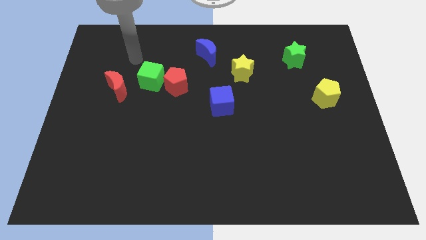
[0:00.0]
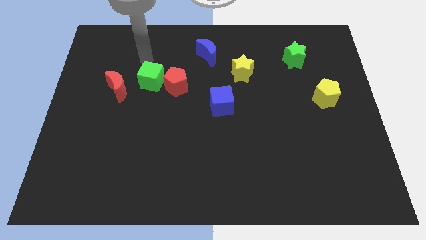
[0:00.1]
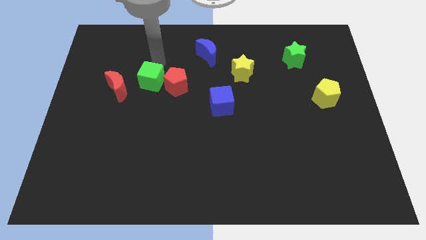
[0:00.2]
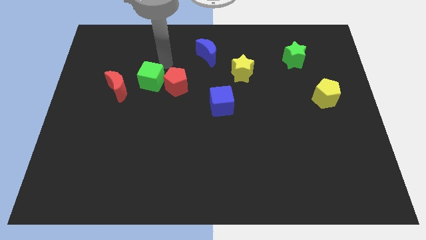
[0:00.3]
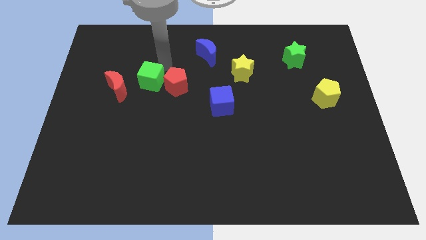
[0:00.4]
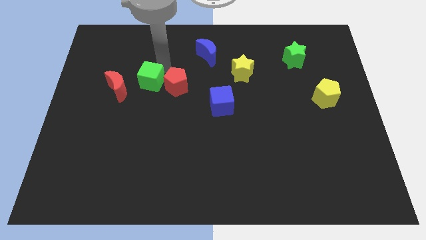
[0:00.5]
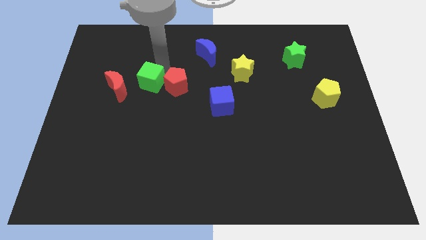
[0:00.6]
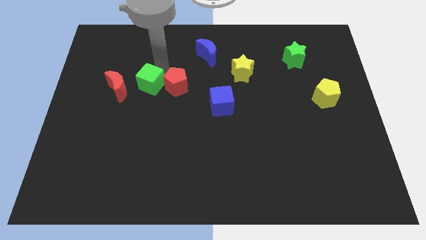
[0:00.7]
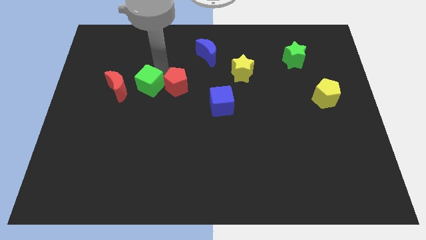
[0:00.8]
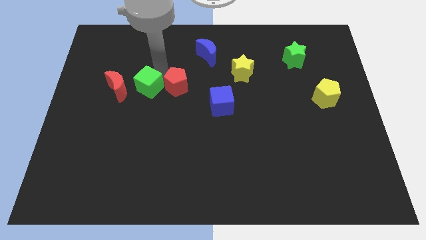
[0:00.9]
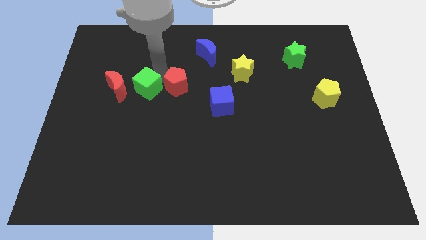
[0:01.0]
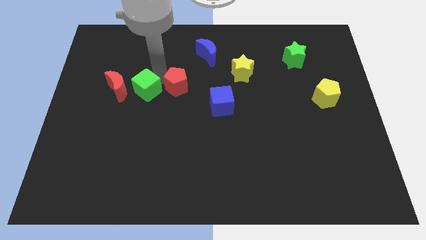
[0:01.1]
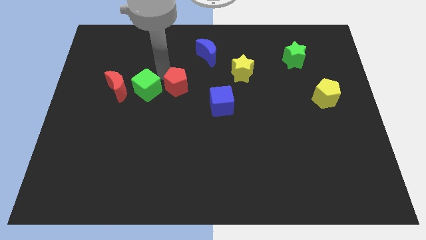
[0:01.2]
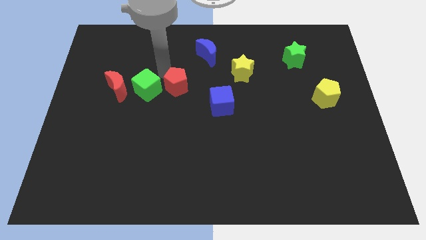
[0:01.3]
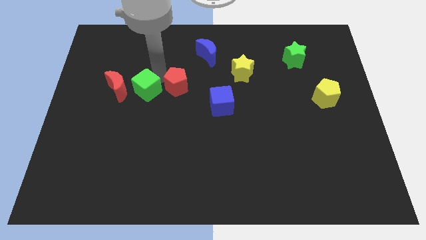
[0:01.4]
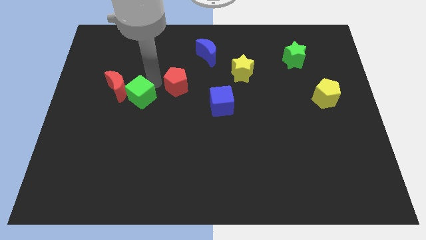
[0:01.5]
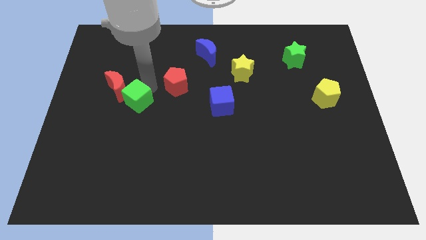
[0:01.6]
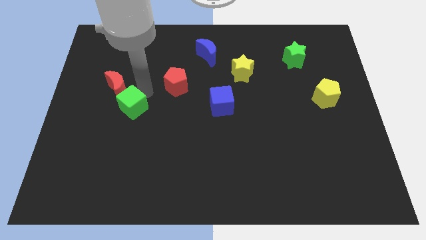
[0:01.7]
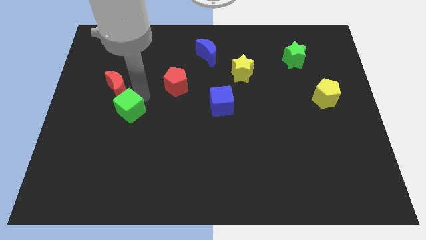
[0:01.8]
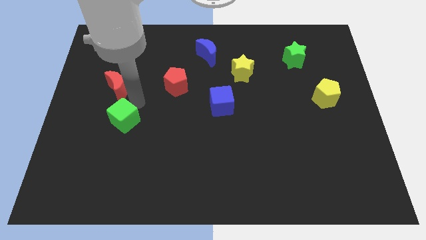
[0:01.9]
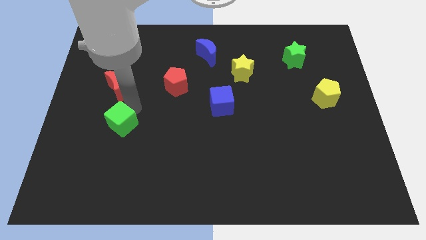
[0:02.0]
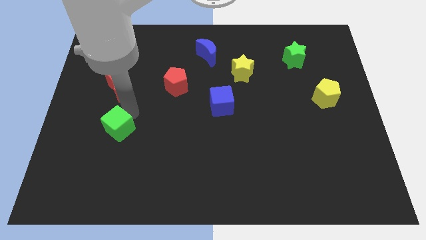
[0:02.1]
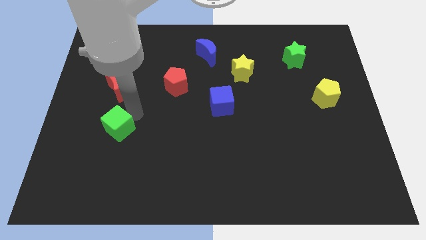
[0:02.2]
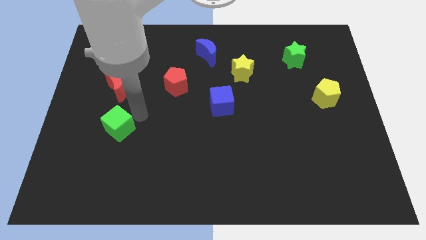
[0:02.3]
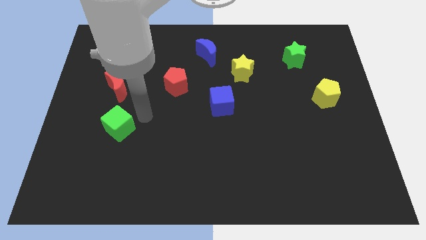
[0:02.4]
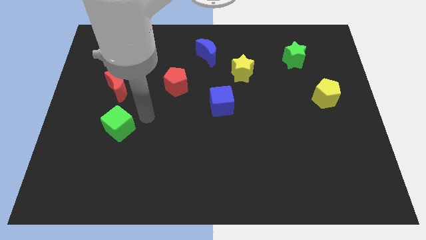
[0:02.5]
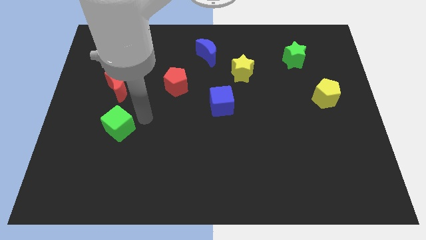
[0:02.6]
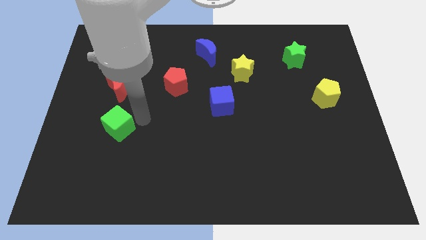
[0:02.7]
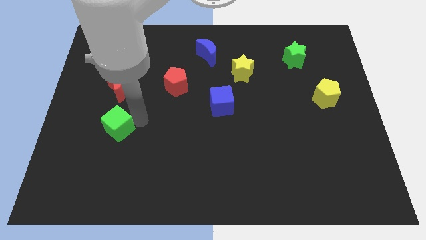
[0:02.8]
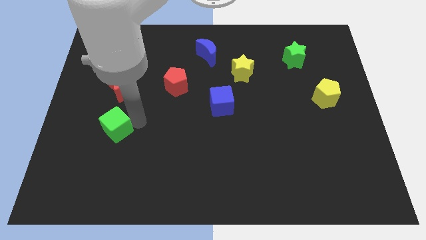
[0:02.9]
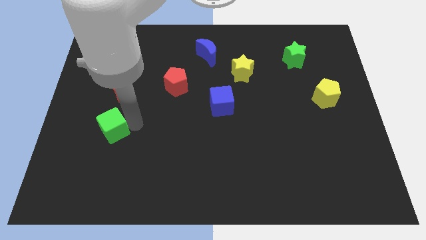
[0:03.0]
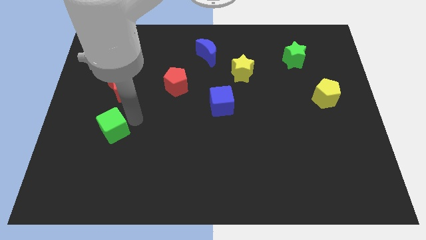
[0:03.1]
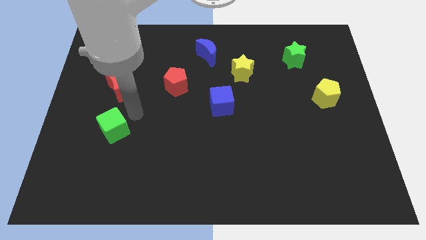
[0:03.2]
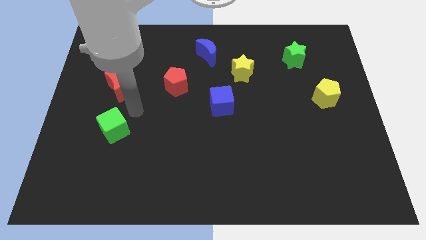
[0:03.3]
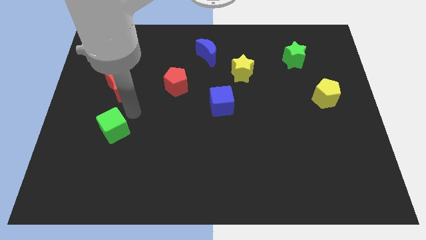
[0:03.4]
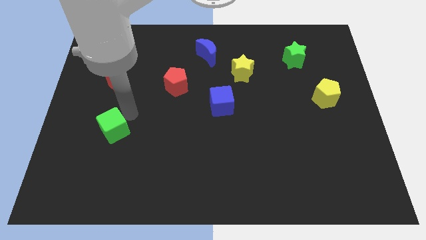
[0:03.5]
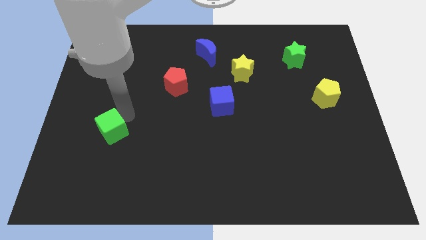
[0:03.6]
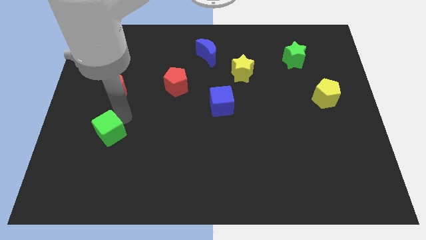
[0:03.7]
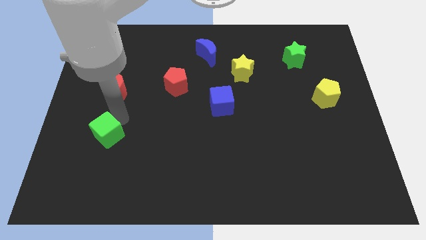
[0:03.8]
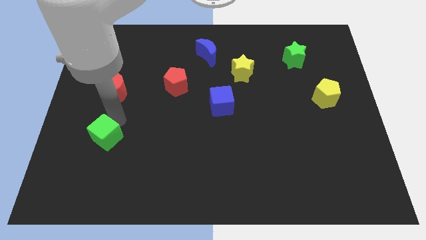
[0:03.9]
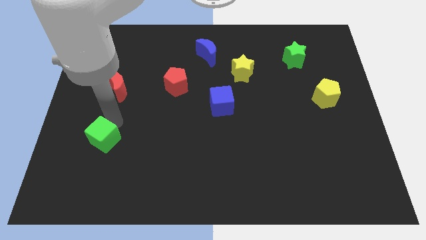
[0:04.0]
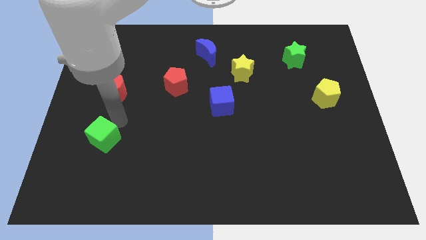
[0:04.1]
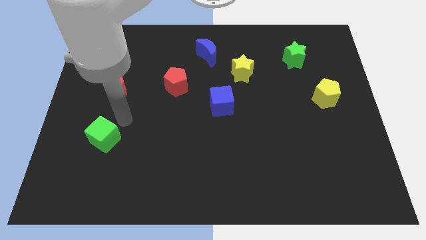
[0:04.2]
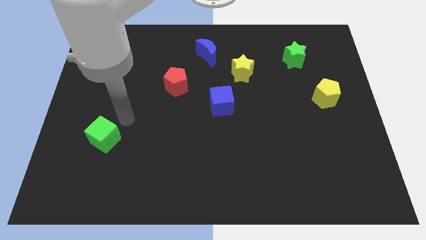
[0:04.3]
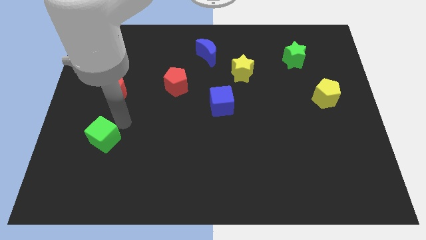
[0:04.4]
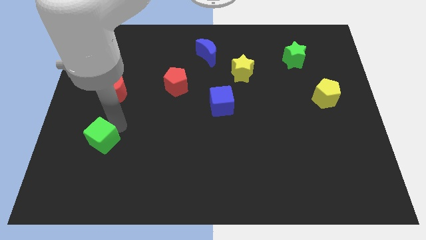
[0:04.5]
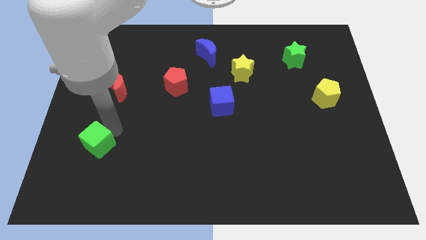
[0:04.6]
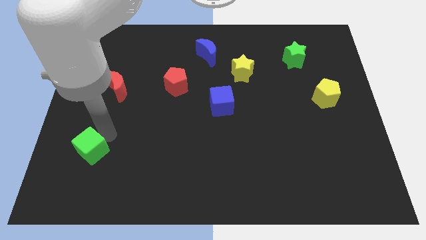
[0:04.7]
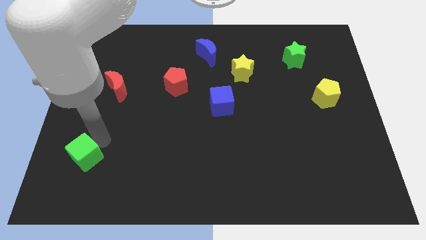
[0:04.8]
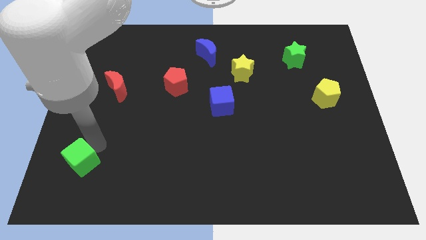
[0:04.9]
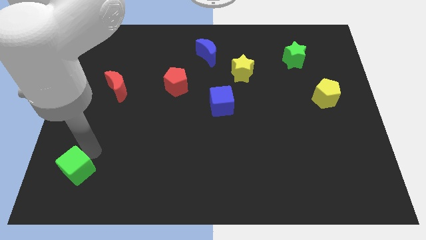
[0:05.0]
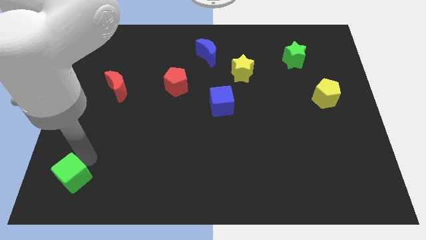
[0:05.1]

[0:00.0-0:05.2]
move the green cube to the bottom left of the board

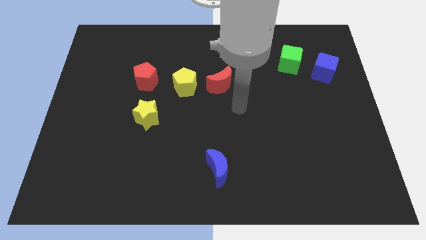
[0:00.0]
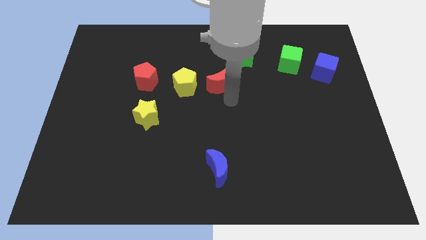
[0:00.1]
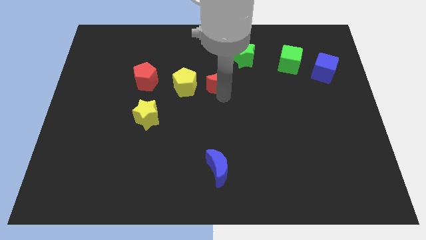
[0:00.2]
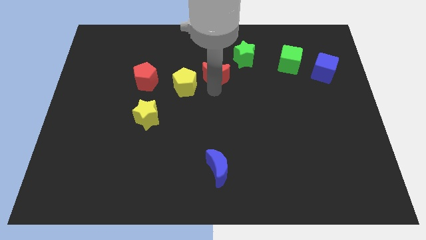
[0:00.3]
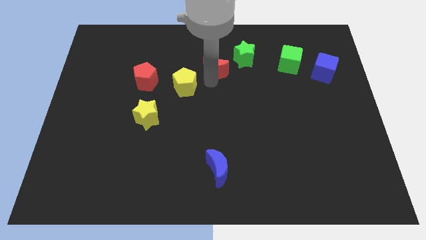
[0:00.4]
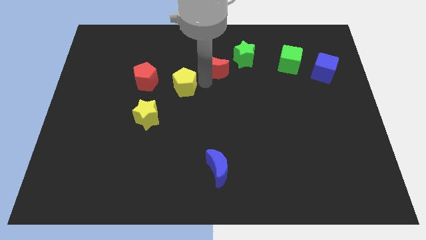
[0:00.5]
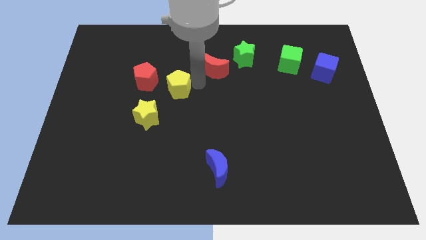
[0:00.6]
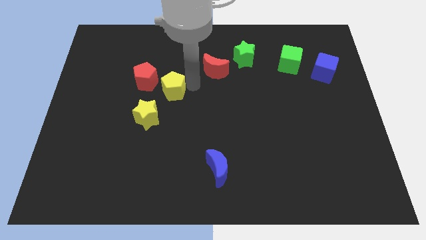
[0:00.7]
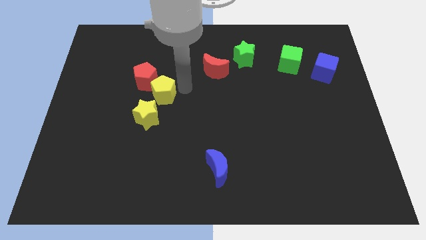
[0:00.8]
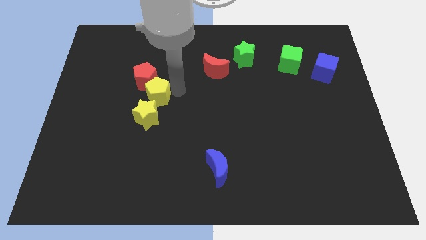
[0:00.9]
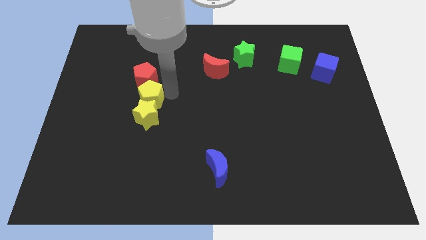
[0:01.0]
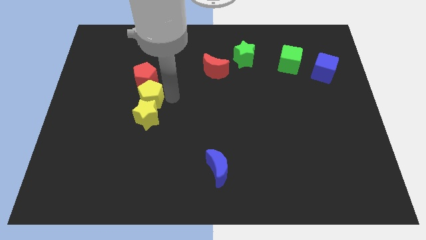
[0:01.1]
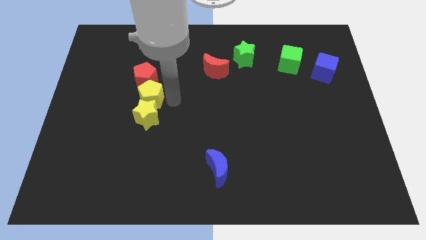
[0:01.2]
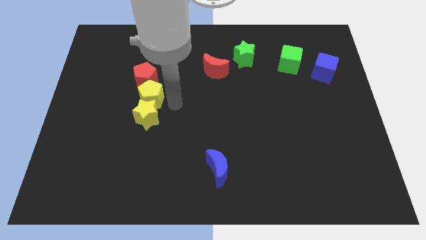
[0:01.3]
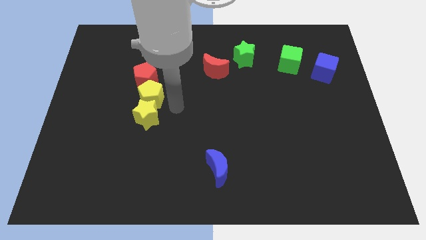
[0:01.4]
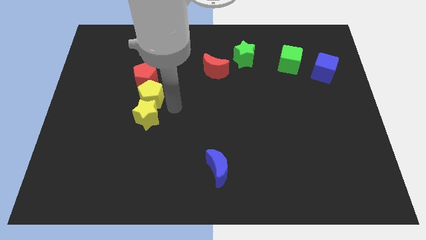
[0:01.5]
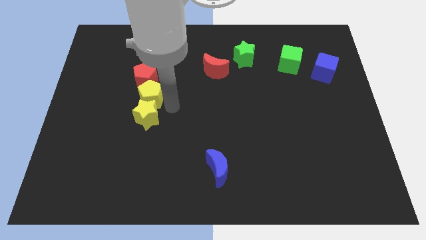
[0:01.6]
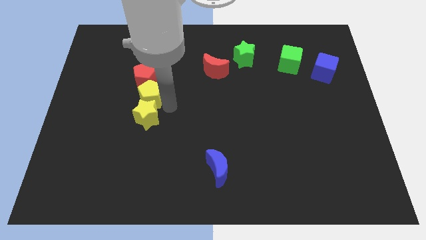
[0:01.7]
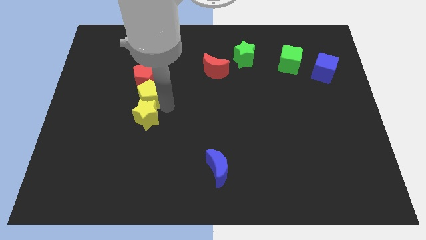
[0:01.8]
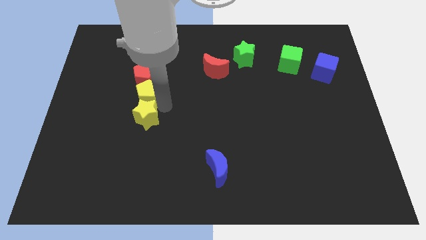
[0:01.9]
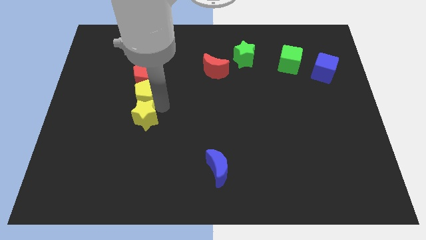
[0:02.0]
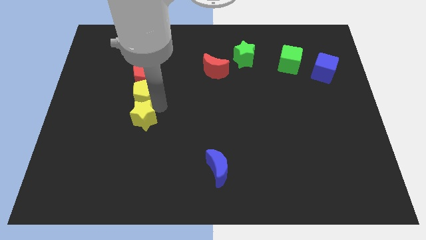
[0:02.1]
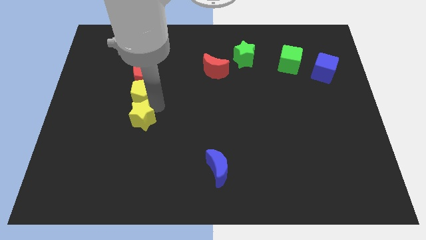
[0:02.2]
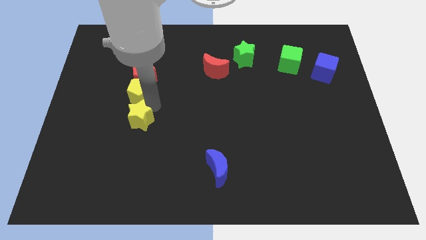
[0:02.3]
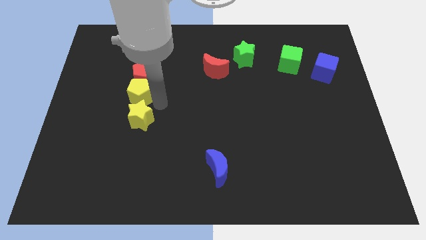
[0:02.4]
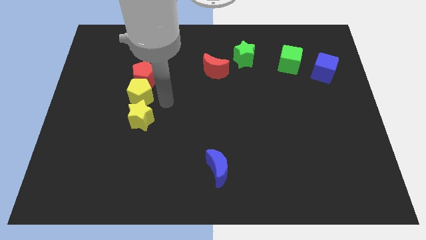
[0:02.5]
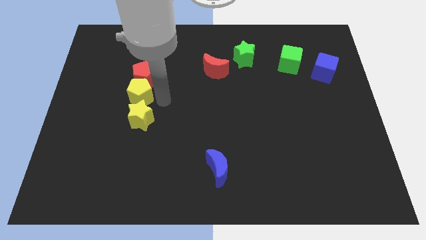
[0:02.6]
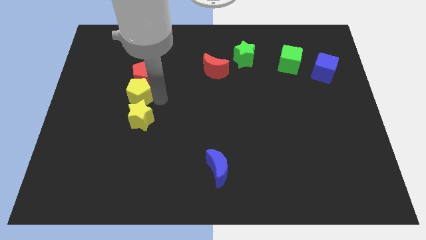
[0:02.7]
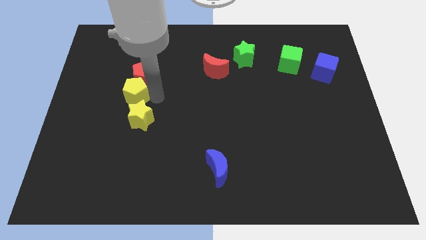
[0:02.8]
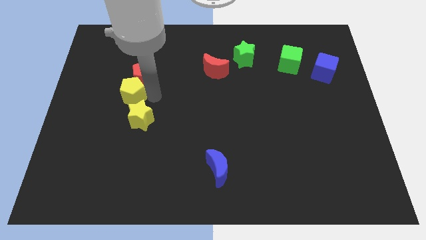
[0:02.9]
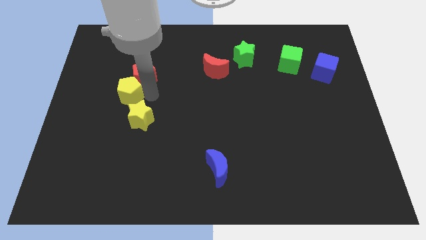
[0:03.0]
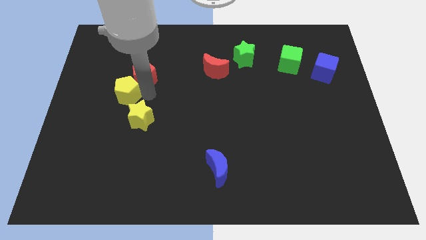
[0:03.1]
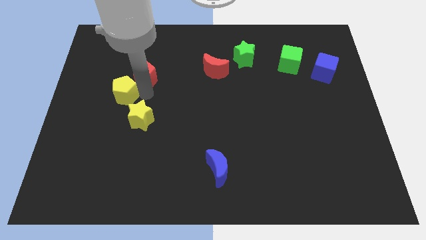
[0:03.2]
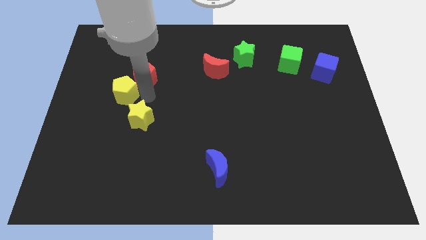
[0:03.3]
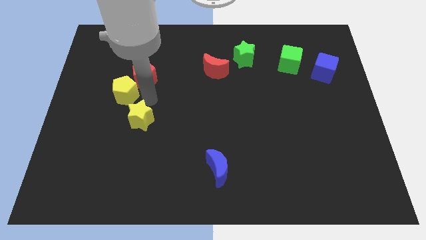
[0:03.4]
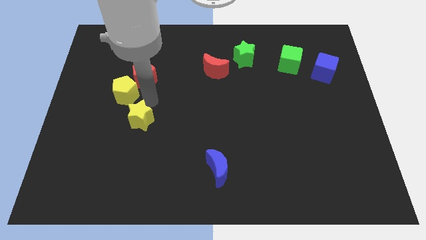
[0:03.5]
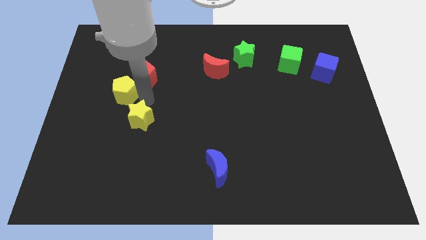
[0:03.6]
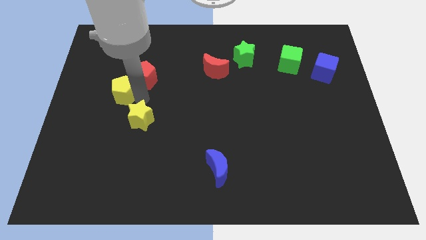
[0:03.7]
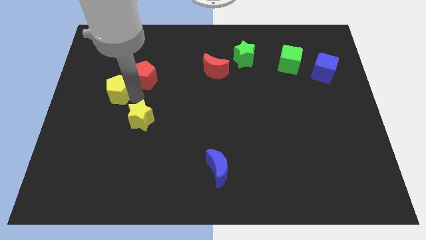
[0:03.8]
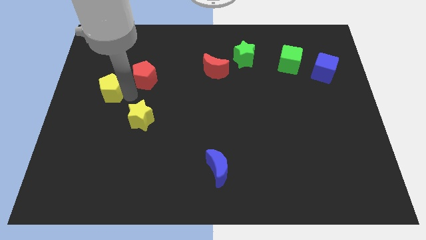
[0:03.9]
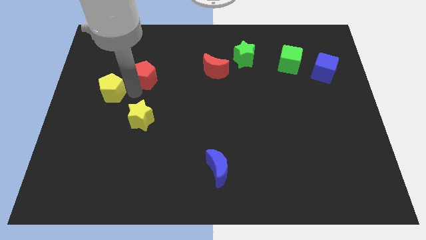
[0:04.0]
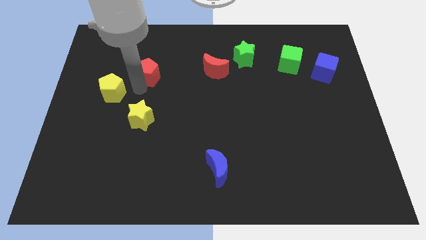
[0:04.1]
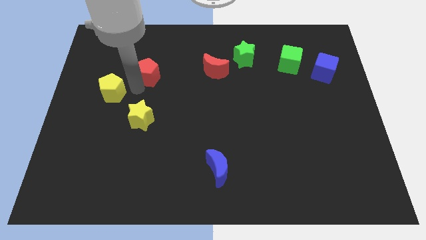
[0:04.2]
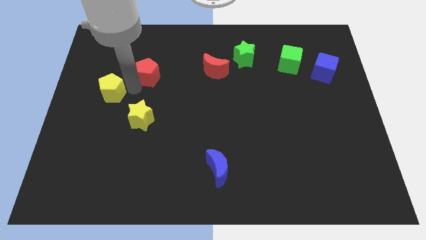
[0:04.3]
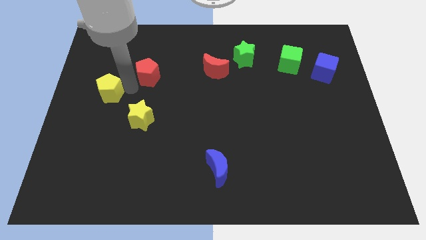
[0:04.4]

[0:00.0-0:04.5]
slide the yellow pentagon to the left side
